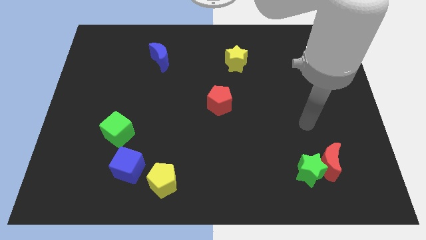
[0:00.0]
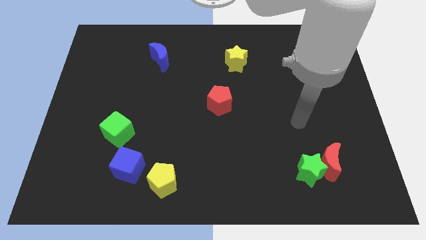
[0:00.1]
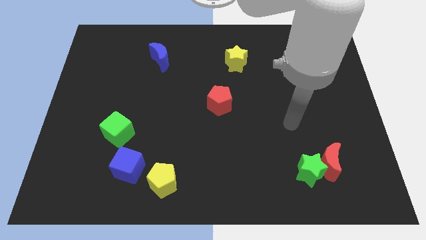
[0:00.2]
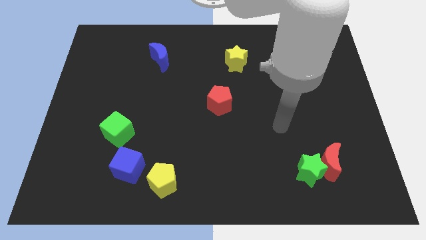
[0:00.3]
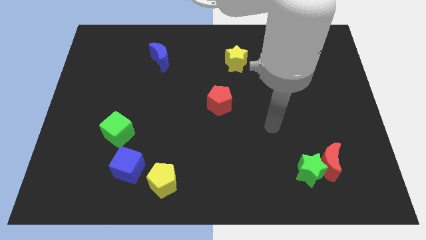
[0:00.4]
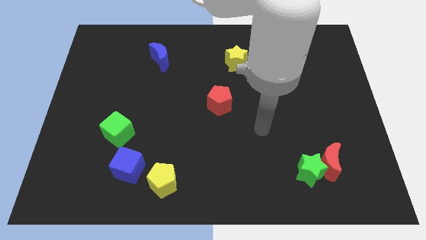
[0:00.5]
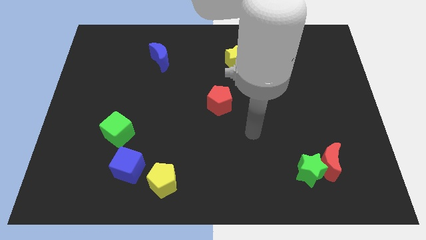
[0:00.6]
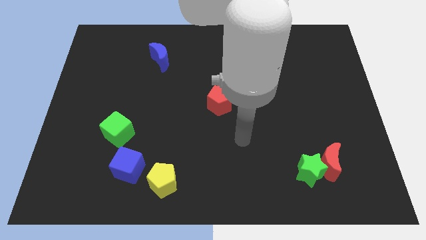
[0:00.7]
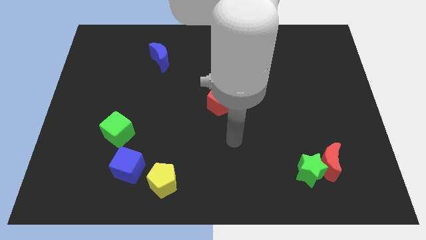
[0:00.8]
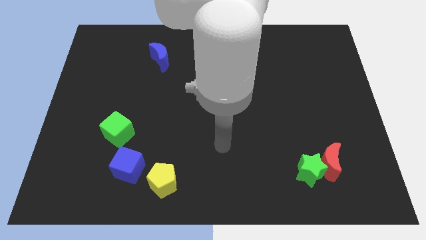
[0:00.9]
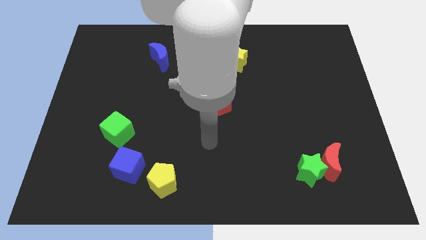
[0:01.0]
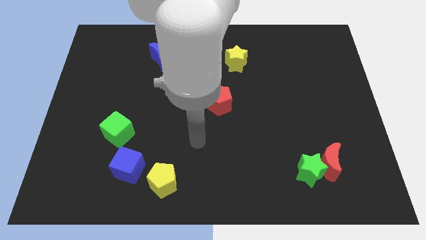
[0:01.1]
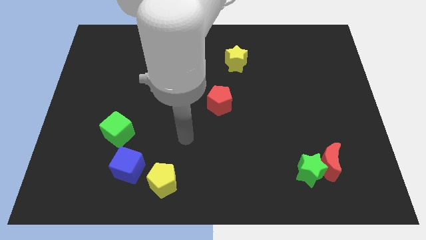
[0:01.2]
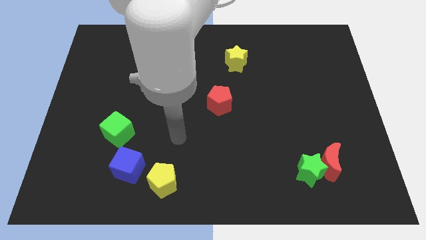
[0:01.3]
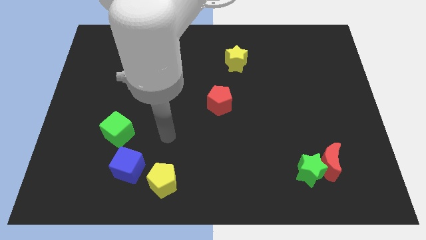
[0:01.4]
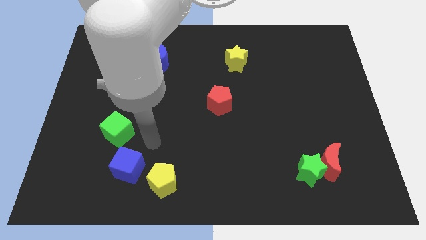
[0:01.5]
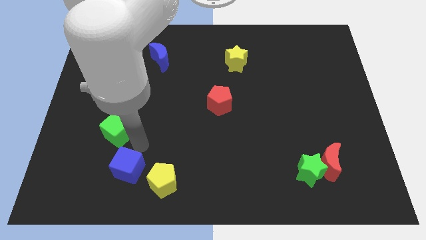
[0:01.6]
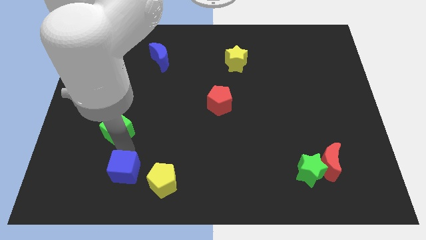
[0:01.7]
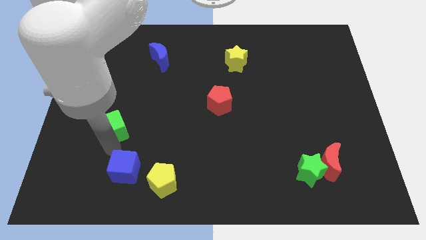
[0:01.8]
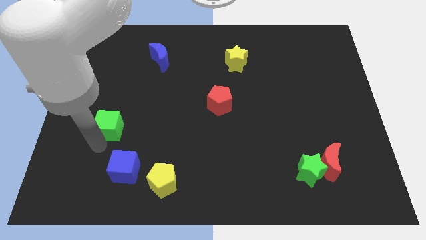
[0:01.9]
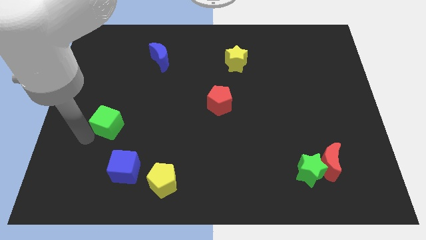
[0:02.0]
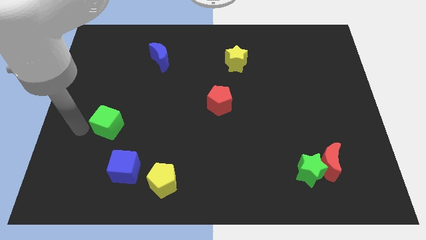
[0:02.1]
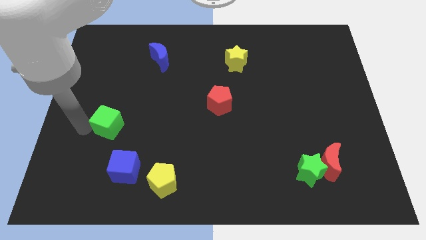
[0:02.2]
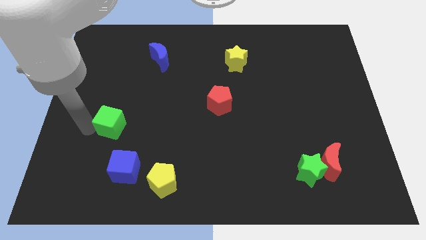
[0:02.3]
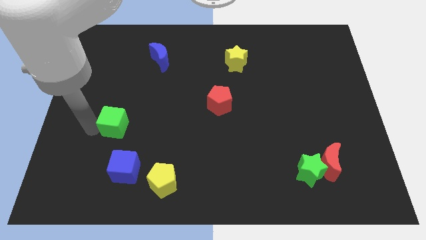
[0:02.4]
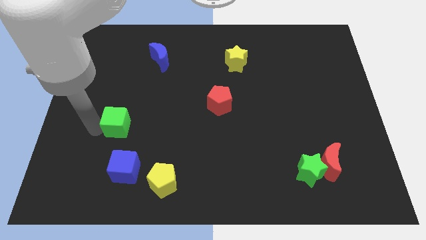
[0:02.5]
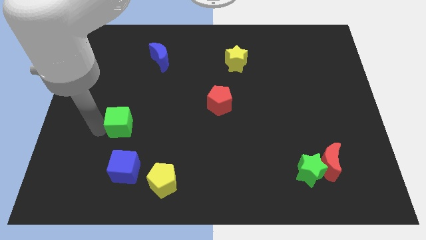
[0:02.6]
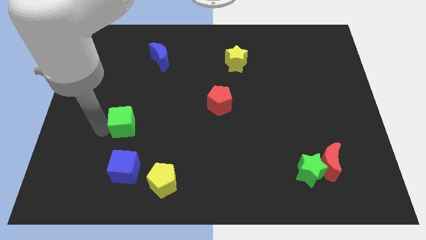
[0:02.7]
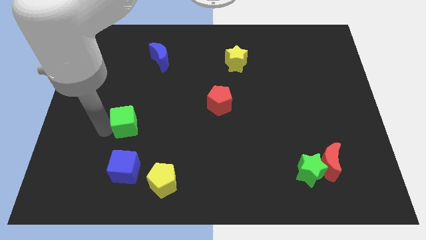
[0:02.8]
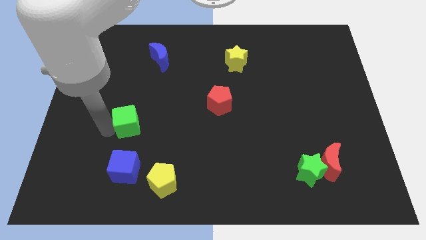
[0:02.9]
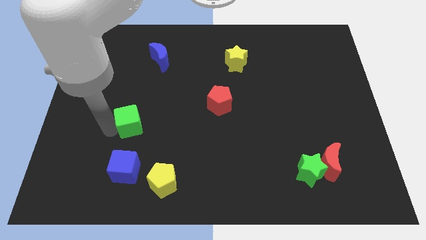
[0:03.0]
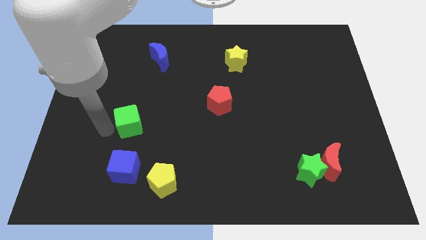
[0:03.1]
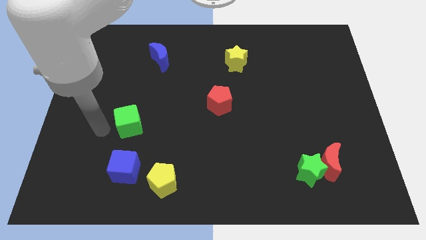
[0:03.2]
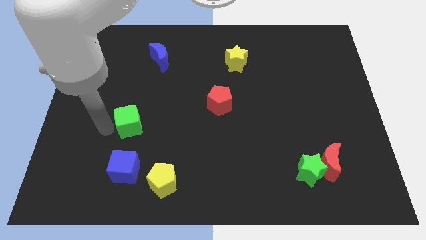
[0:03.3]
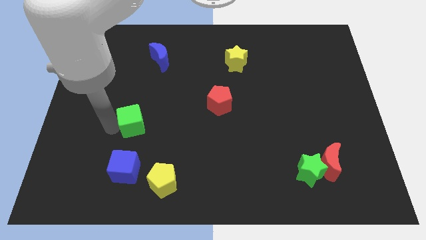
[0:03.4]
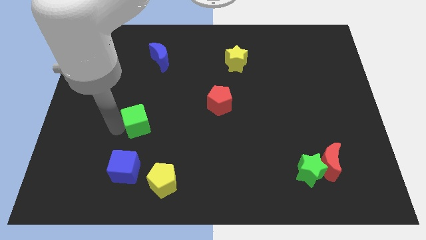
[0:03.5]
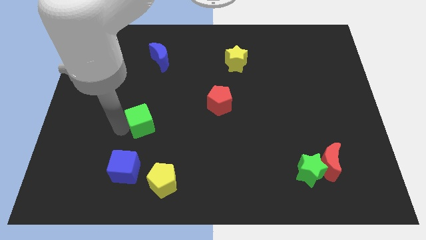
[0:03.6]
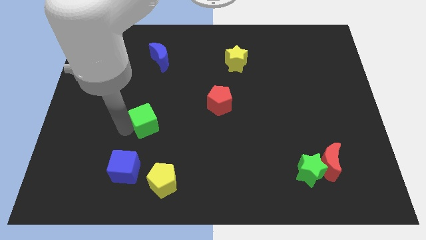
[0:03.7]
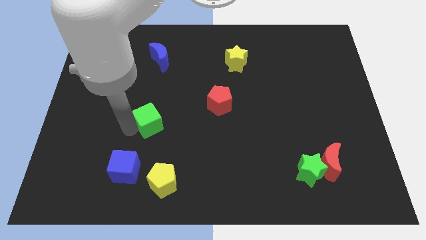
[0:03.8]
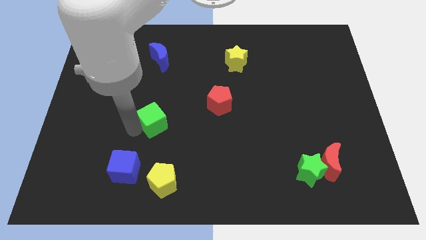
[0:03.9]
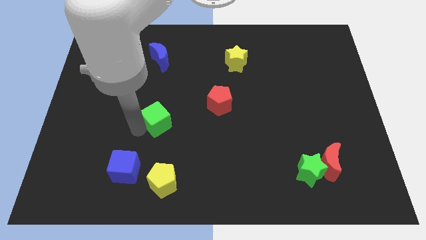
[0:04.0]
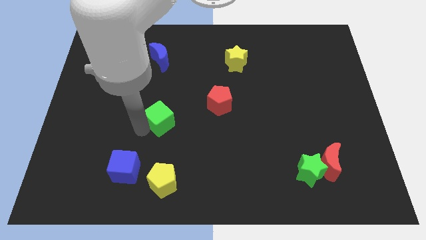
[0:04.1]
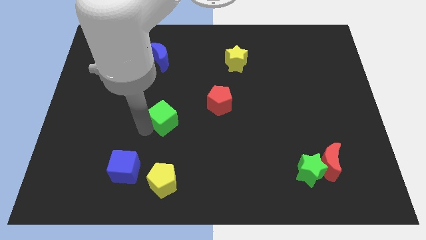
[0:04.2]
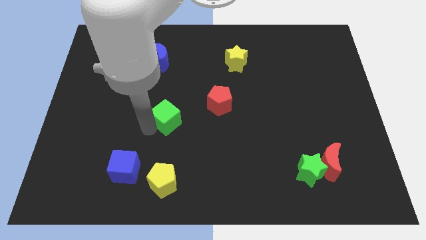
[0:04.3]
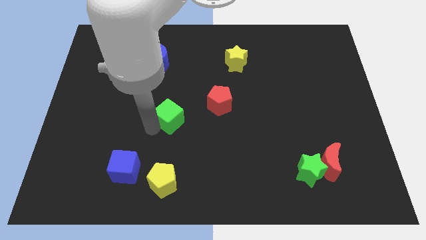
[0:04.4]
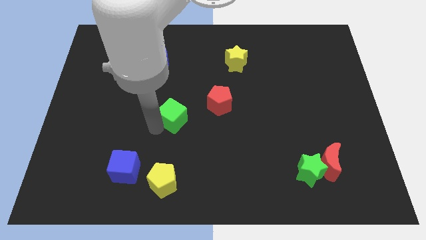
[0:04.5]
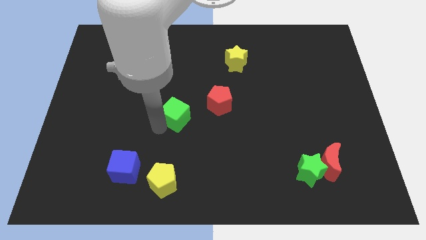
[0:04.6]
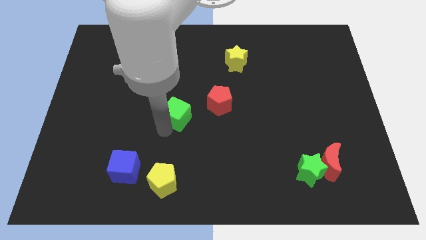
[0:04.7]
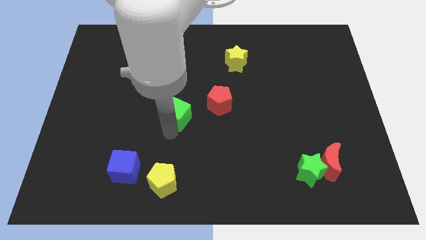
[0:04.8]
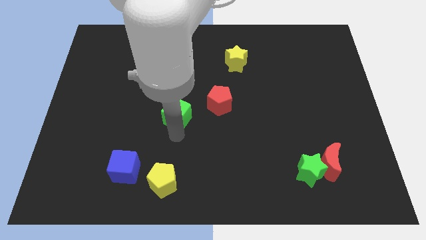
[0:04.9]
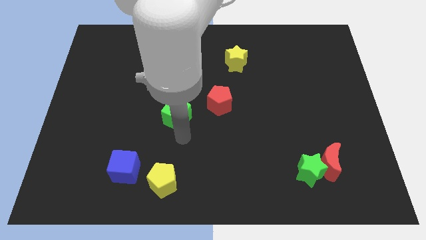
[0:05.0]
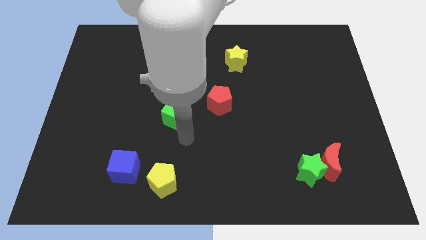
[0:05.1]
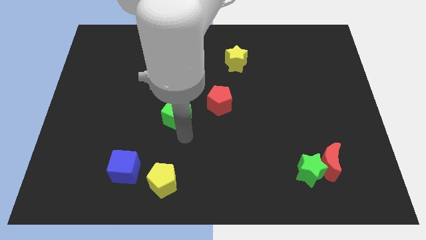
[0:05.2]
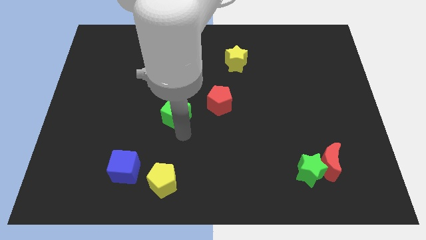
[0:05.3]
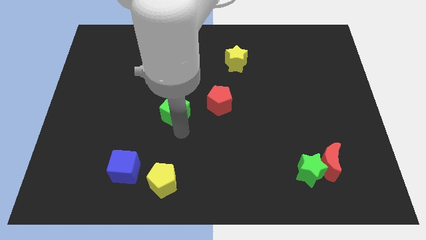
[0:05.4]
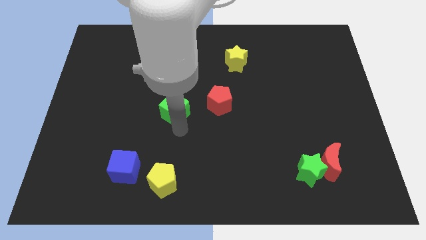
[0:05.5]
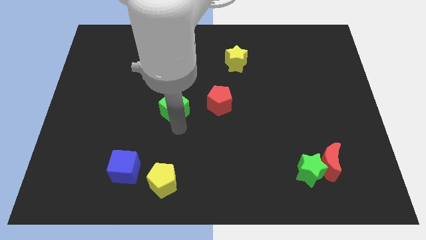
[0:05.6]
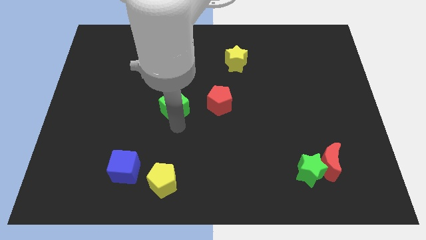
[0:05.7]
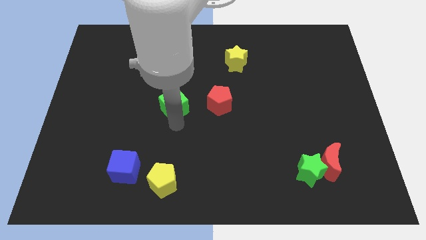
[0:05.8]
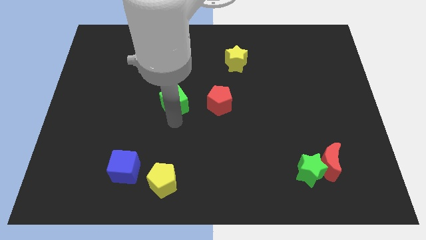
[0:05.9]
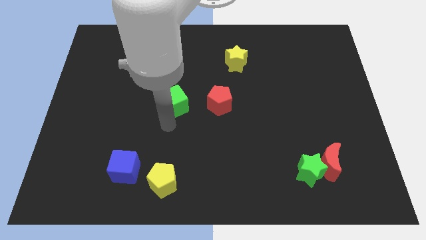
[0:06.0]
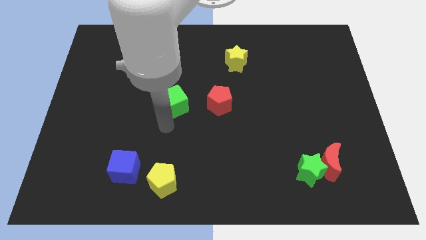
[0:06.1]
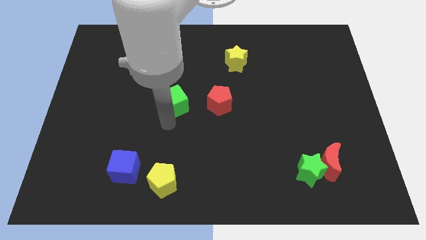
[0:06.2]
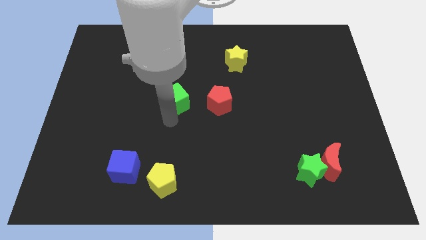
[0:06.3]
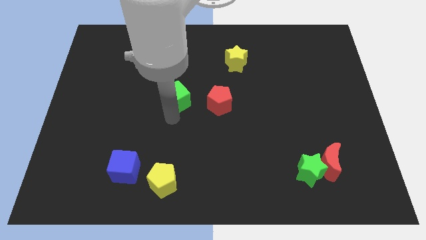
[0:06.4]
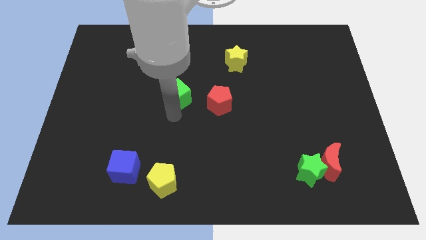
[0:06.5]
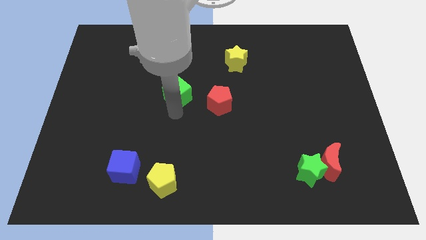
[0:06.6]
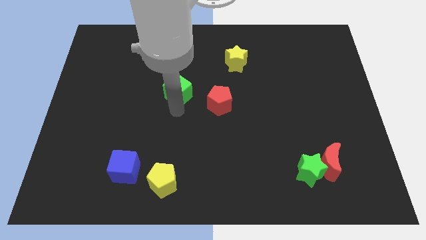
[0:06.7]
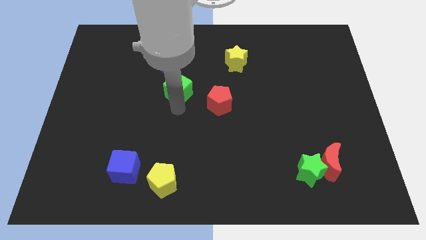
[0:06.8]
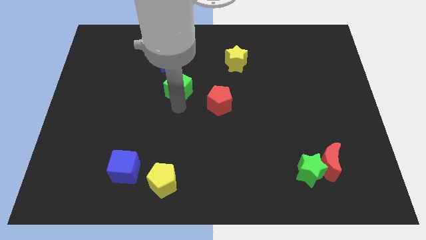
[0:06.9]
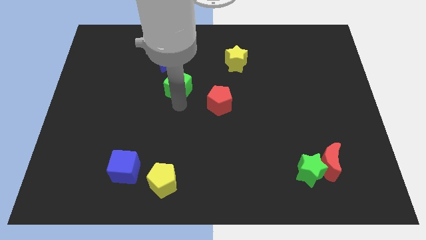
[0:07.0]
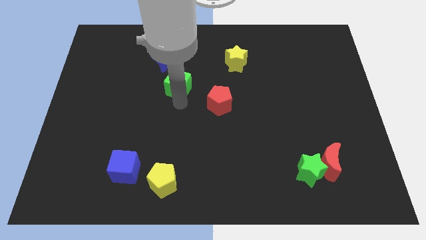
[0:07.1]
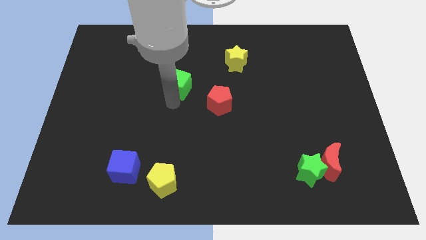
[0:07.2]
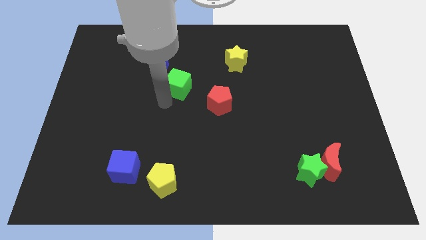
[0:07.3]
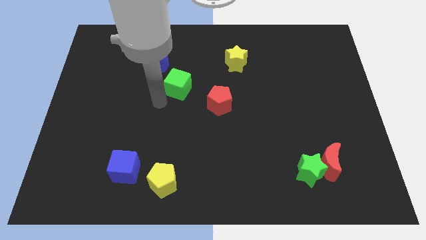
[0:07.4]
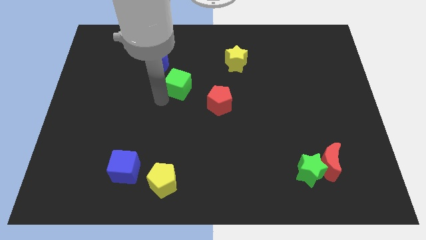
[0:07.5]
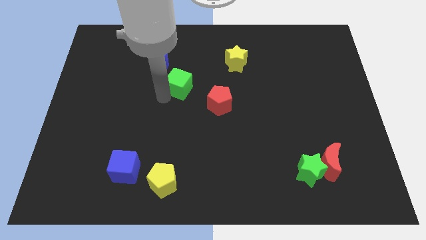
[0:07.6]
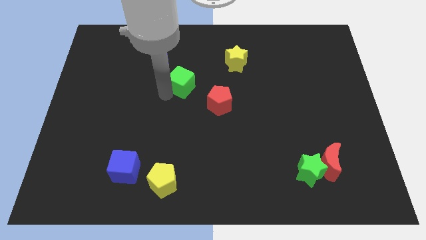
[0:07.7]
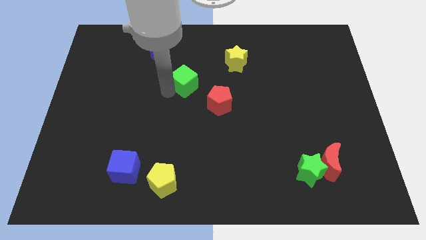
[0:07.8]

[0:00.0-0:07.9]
push the green cube diagonally upwards and right
